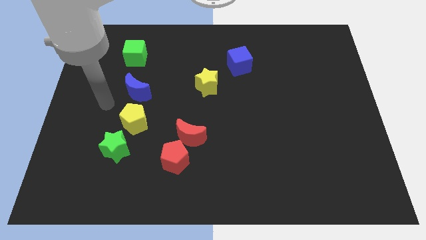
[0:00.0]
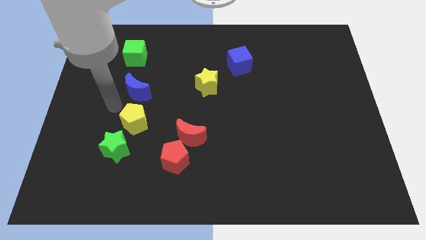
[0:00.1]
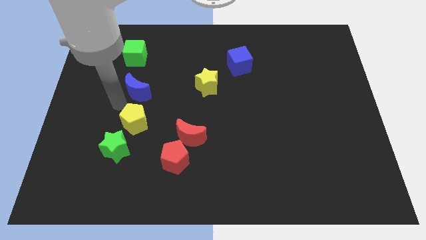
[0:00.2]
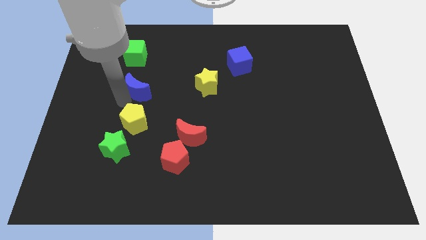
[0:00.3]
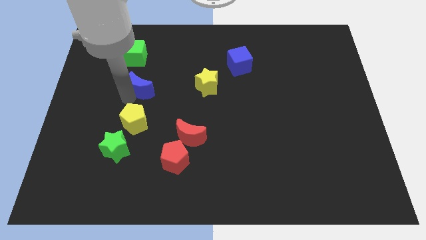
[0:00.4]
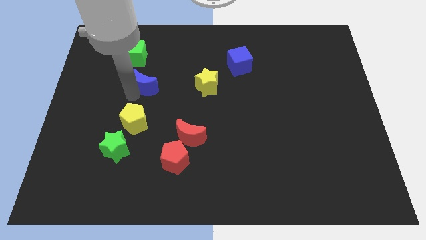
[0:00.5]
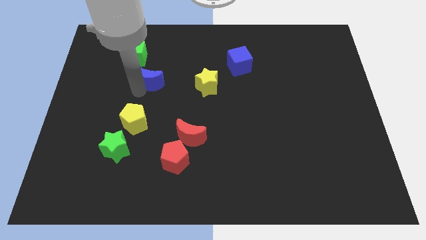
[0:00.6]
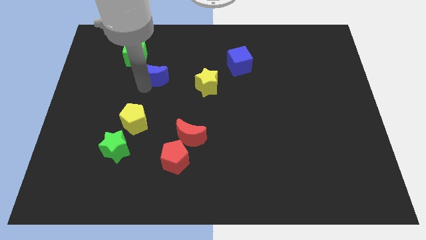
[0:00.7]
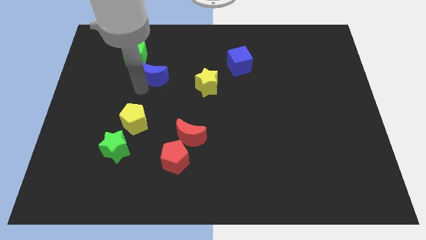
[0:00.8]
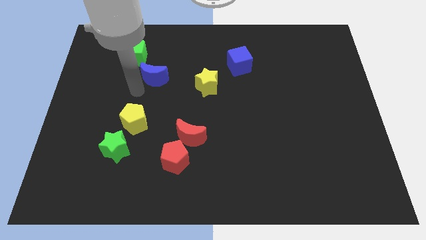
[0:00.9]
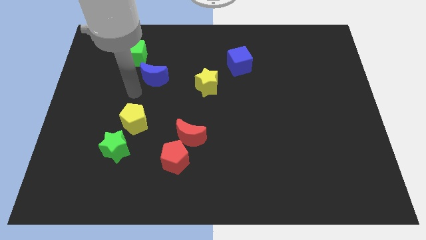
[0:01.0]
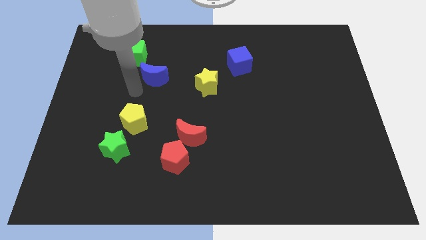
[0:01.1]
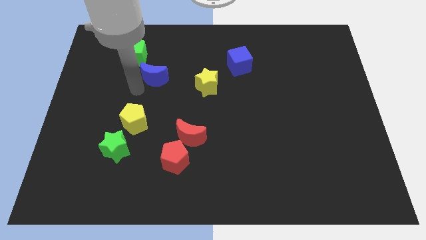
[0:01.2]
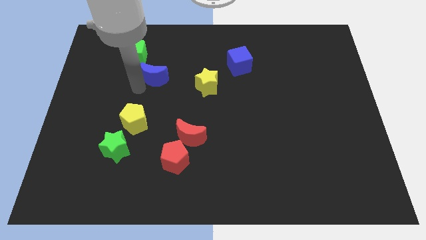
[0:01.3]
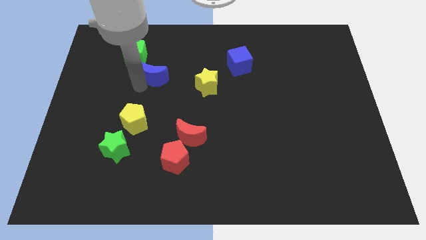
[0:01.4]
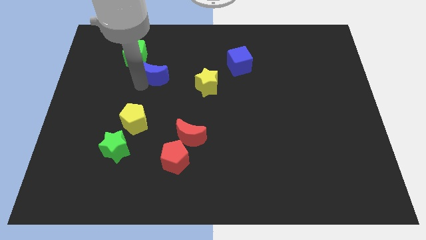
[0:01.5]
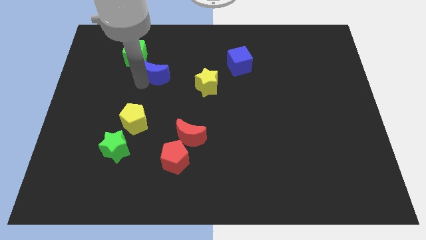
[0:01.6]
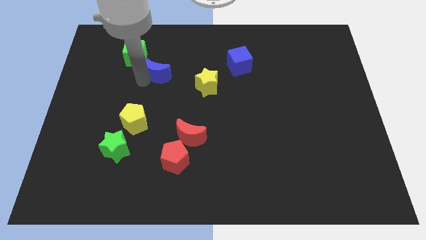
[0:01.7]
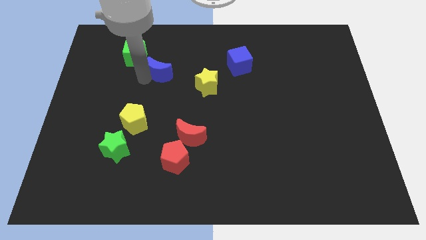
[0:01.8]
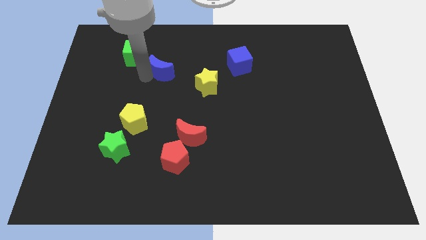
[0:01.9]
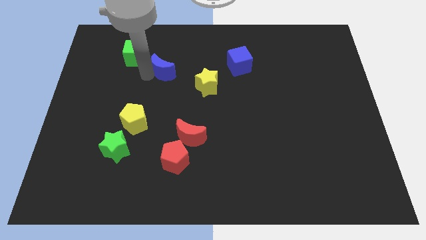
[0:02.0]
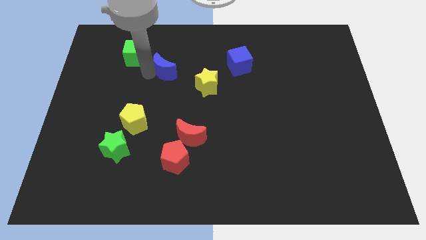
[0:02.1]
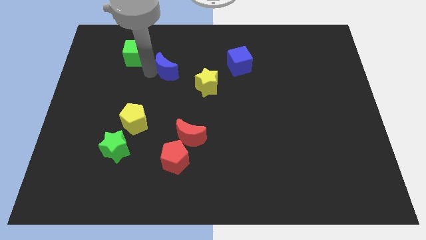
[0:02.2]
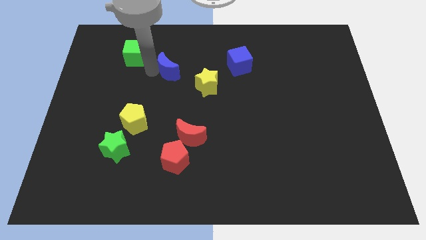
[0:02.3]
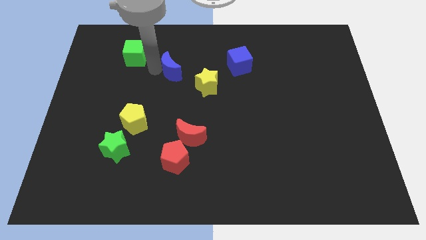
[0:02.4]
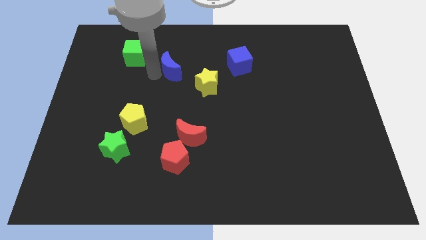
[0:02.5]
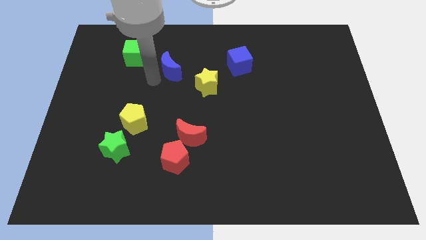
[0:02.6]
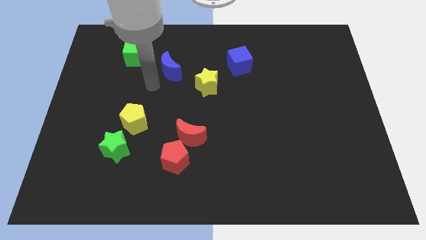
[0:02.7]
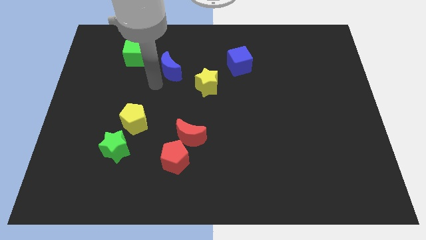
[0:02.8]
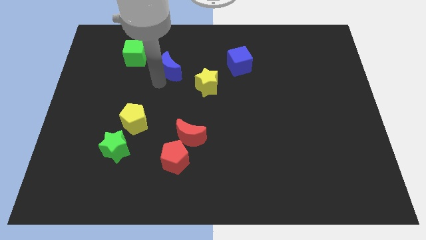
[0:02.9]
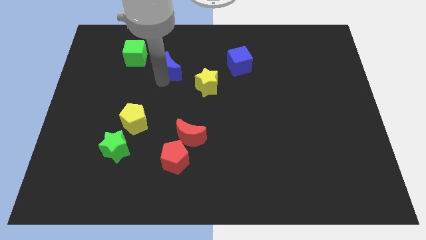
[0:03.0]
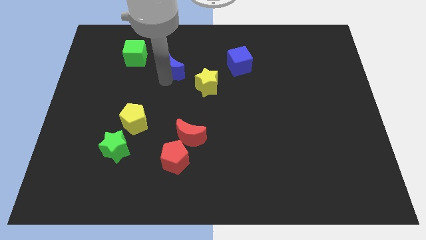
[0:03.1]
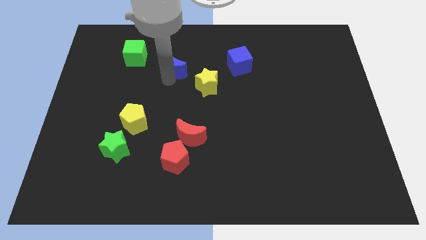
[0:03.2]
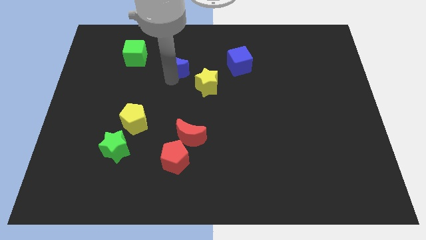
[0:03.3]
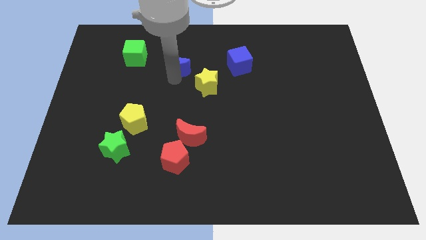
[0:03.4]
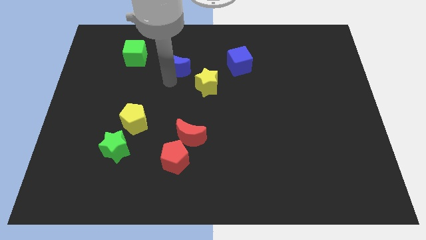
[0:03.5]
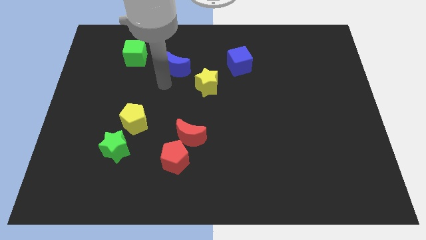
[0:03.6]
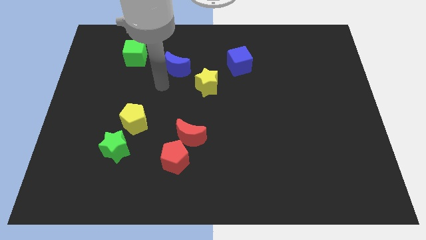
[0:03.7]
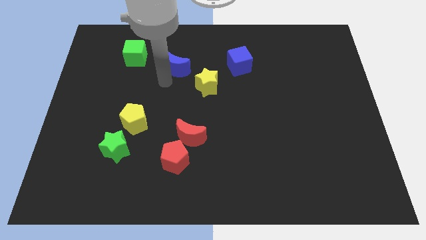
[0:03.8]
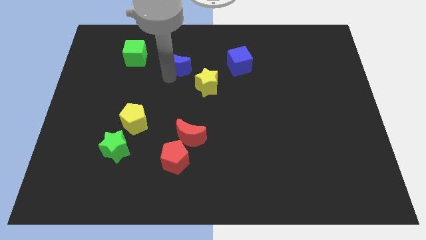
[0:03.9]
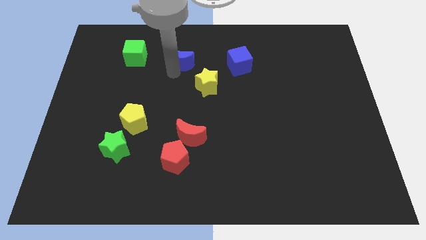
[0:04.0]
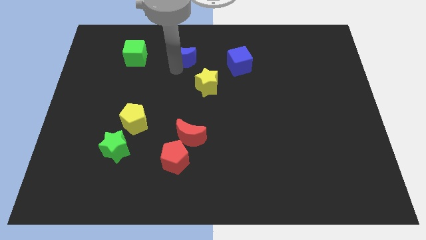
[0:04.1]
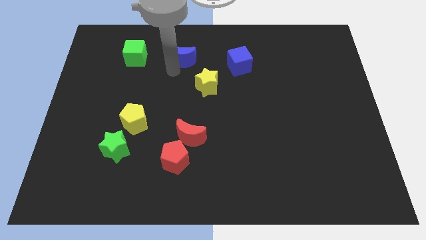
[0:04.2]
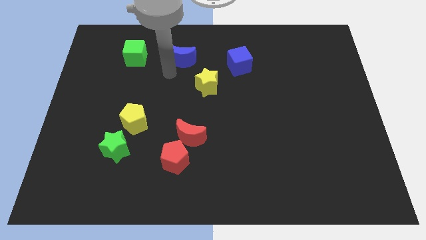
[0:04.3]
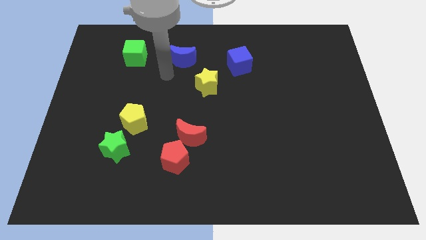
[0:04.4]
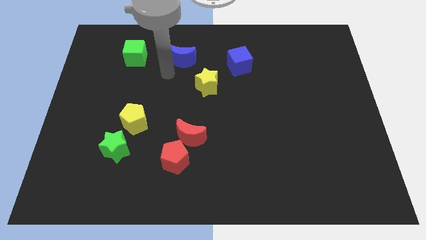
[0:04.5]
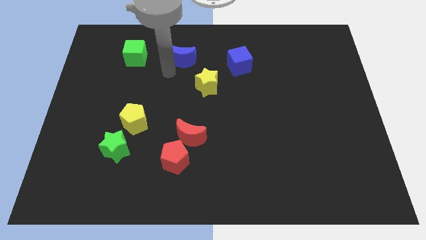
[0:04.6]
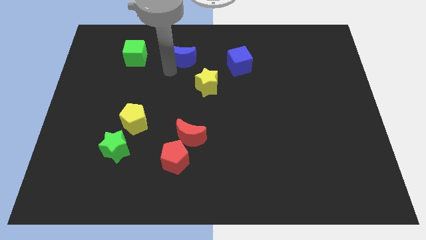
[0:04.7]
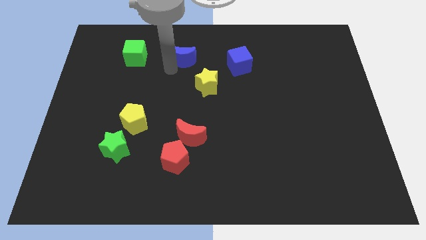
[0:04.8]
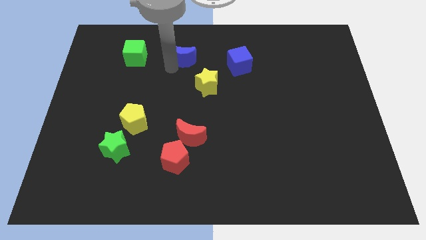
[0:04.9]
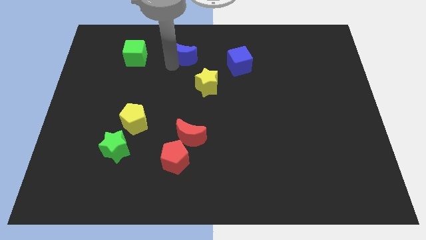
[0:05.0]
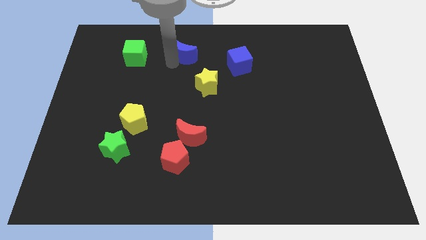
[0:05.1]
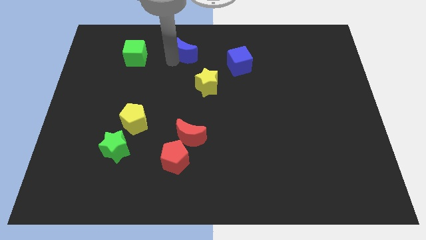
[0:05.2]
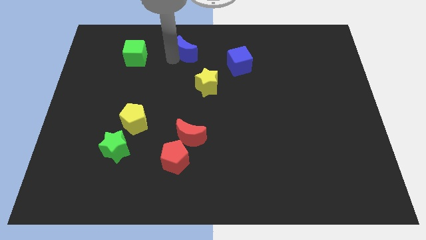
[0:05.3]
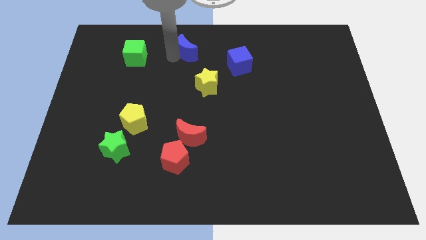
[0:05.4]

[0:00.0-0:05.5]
push the blue moon to the top side

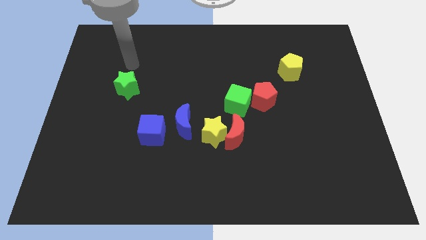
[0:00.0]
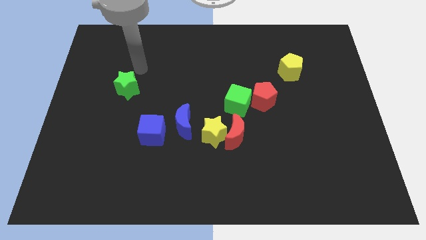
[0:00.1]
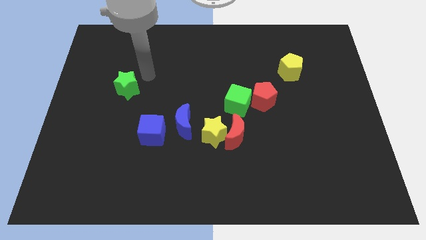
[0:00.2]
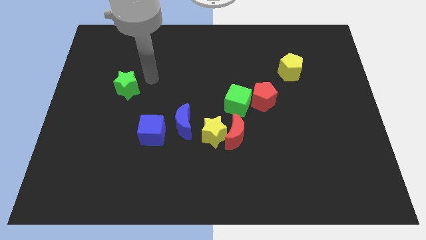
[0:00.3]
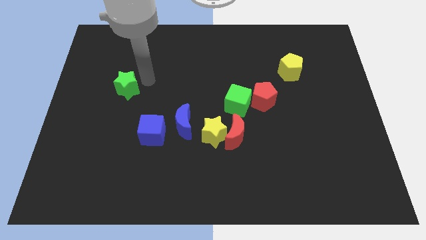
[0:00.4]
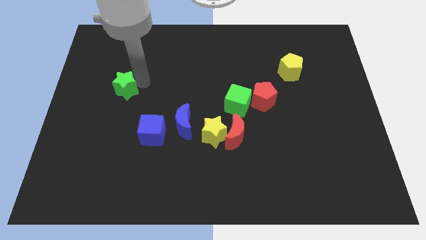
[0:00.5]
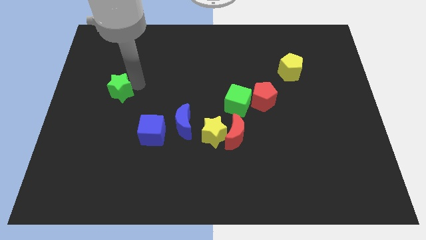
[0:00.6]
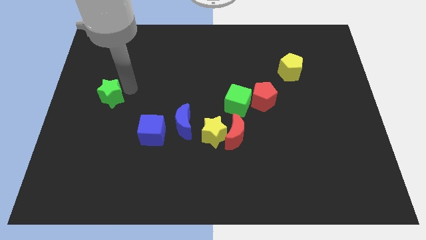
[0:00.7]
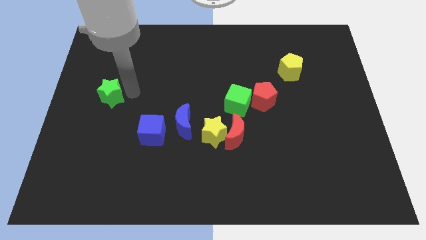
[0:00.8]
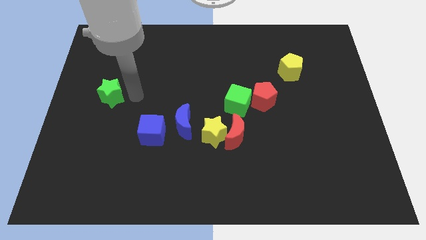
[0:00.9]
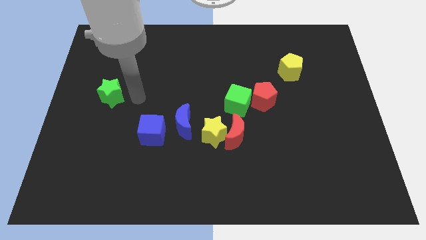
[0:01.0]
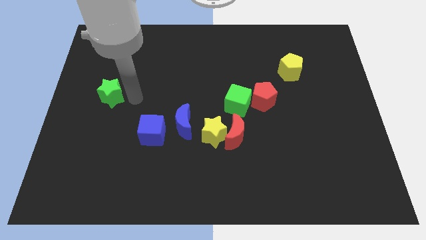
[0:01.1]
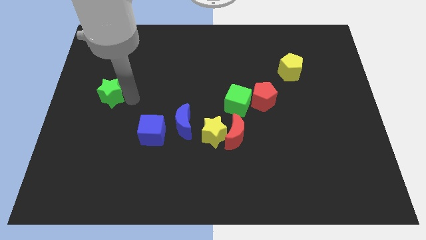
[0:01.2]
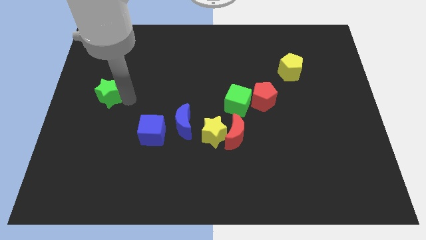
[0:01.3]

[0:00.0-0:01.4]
push the green star to the left side
